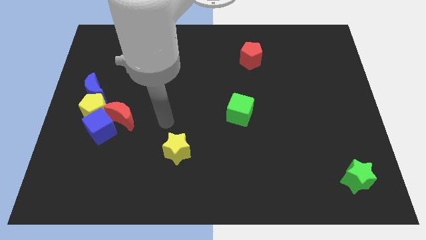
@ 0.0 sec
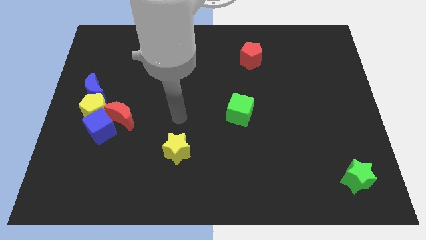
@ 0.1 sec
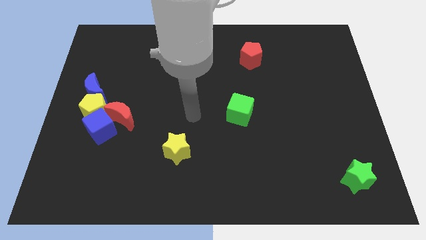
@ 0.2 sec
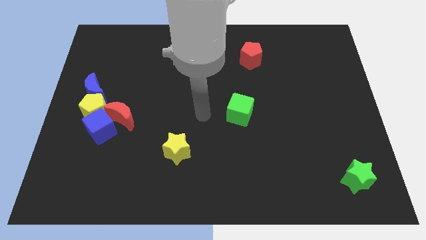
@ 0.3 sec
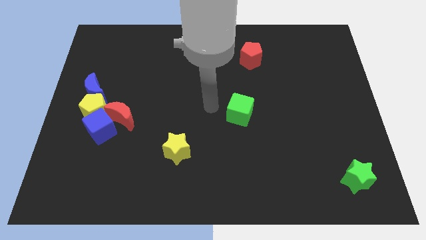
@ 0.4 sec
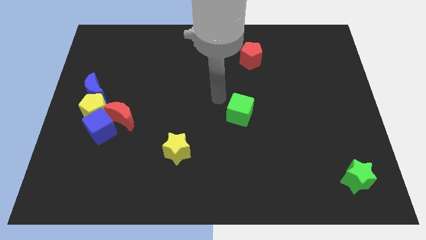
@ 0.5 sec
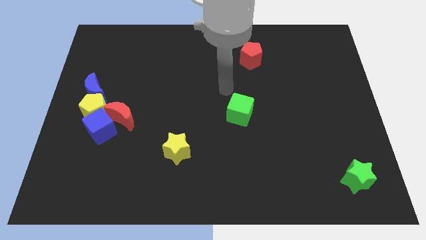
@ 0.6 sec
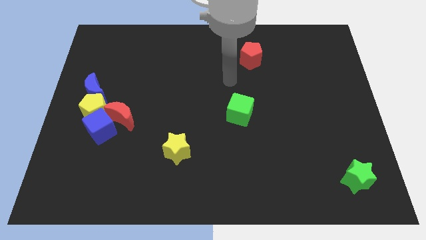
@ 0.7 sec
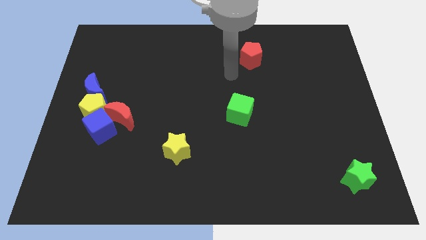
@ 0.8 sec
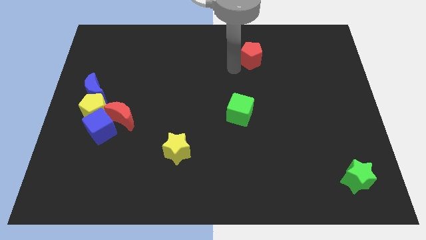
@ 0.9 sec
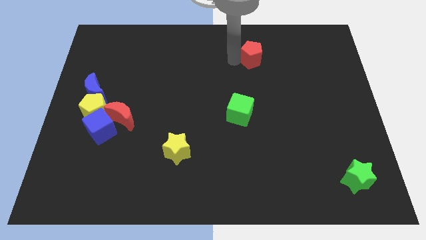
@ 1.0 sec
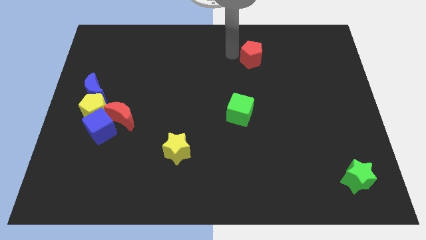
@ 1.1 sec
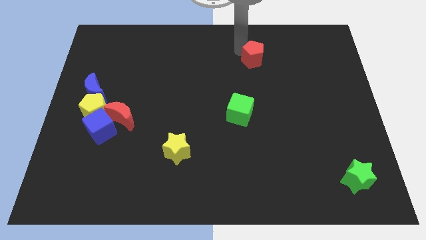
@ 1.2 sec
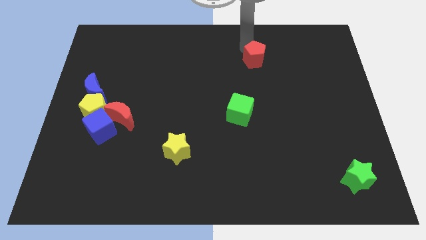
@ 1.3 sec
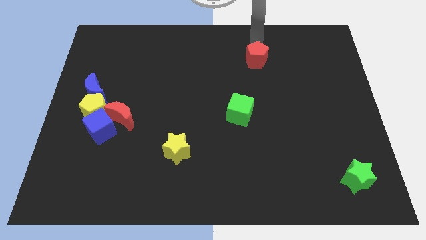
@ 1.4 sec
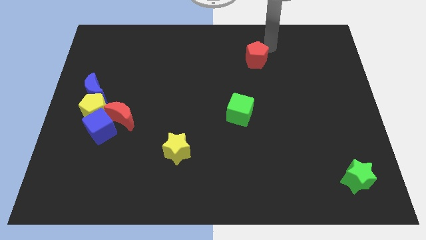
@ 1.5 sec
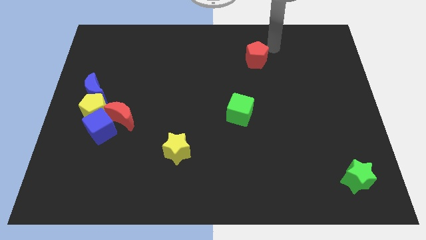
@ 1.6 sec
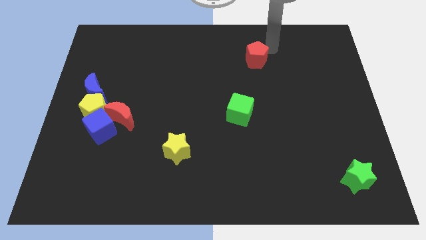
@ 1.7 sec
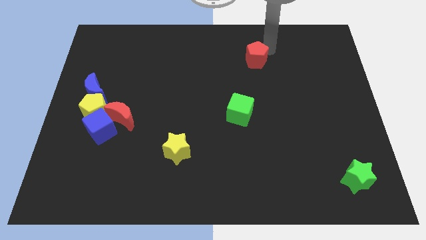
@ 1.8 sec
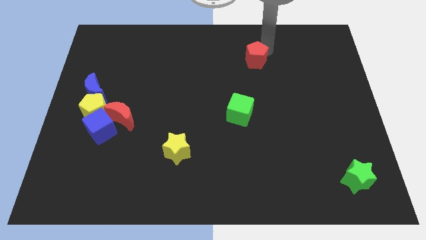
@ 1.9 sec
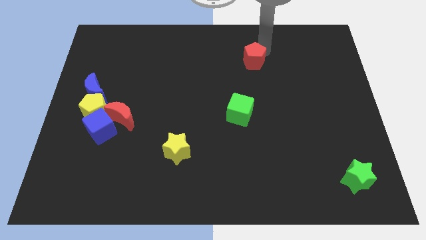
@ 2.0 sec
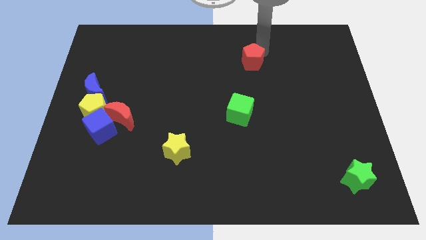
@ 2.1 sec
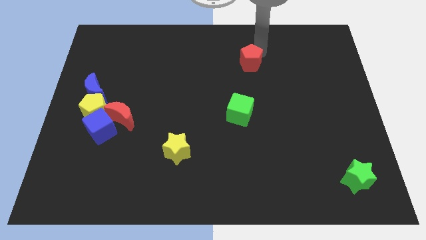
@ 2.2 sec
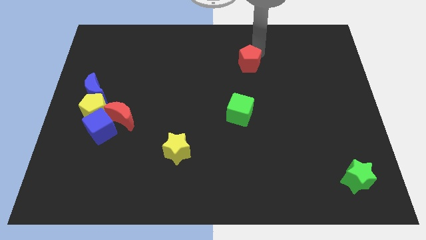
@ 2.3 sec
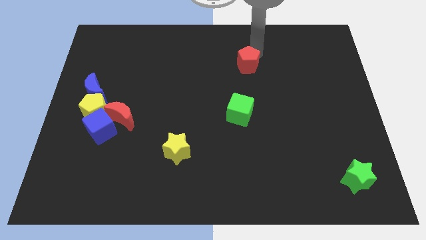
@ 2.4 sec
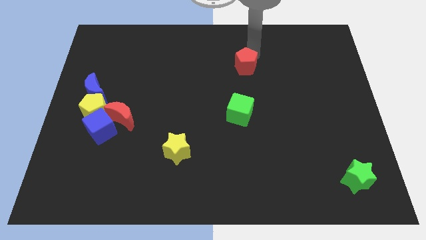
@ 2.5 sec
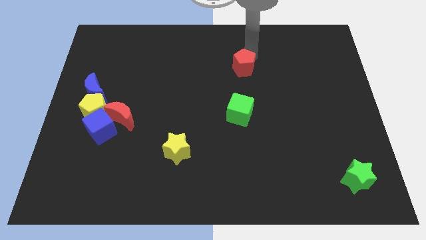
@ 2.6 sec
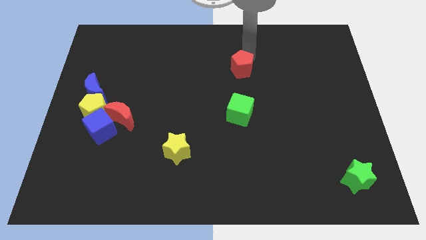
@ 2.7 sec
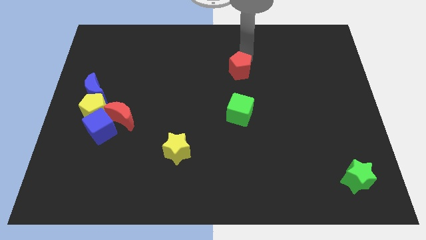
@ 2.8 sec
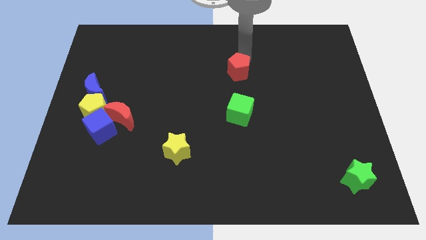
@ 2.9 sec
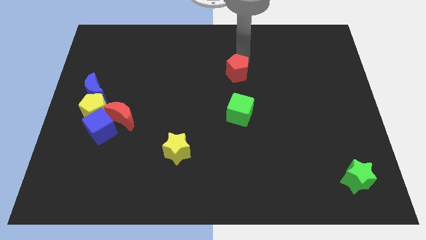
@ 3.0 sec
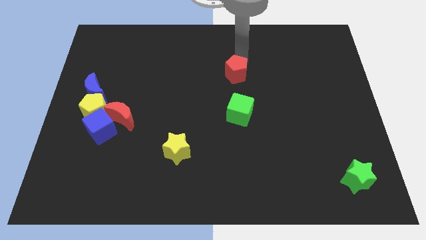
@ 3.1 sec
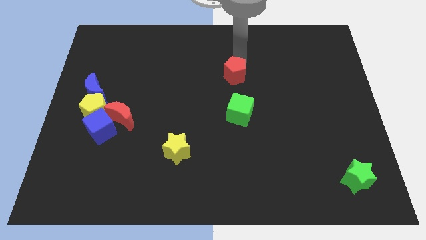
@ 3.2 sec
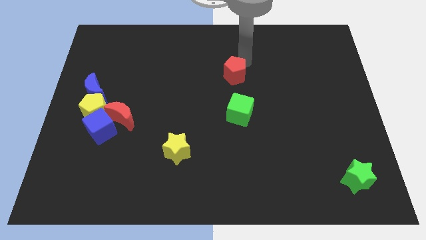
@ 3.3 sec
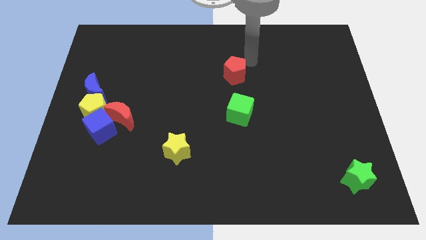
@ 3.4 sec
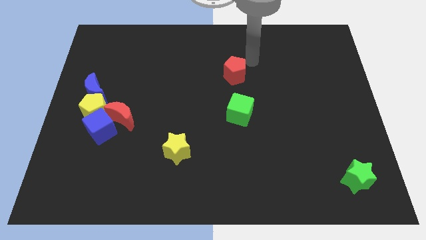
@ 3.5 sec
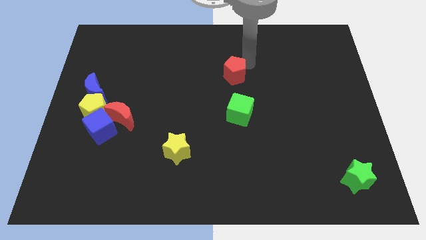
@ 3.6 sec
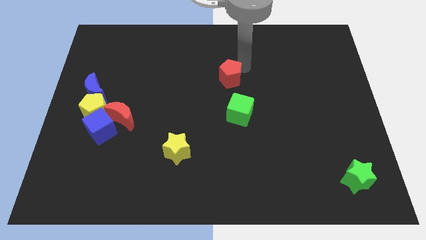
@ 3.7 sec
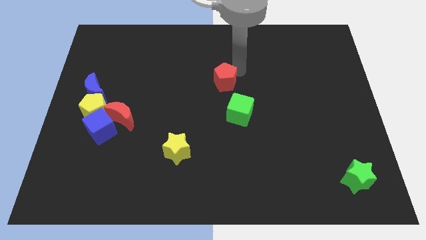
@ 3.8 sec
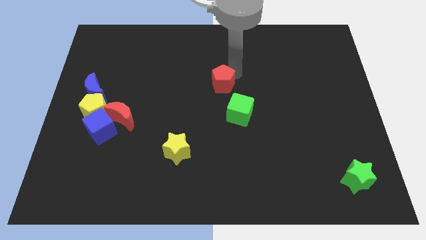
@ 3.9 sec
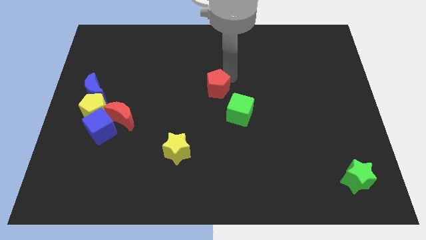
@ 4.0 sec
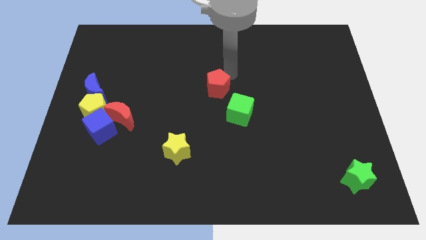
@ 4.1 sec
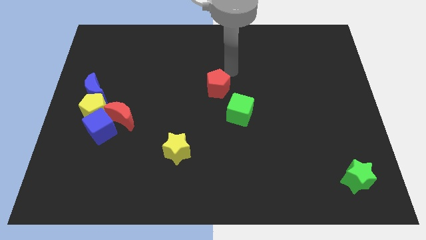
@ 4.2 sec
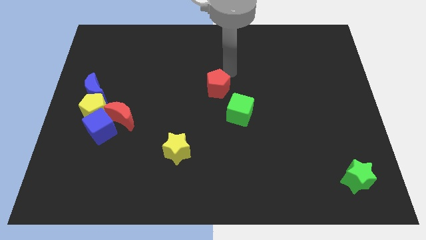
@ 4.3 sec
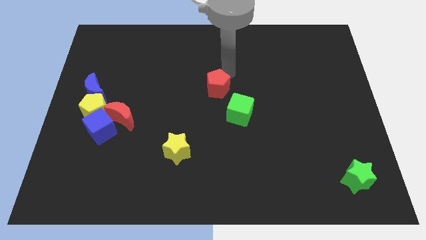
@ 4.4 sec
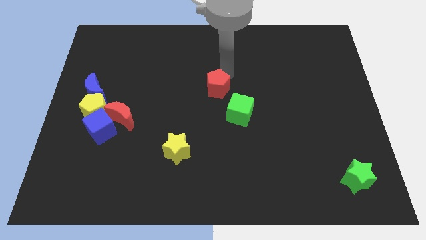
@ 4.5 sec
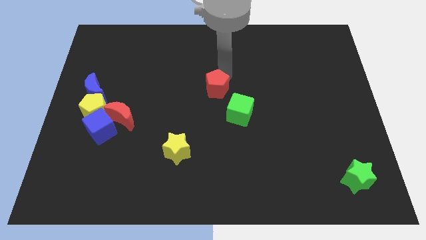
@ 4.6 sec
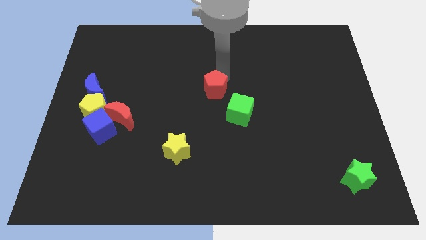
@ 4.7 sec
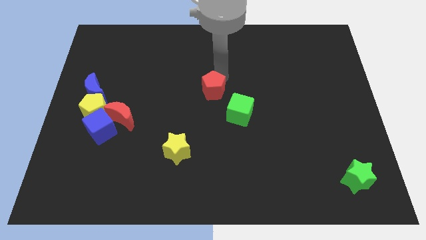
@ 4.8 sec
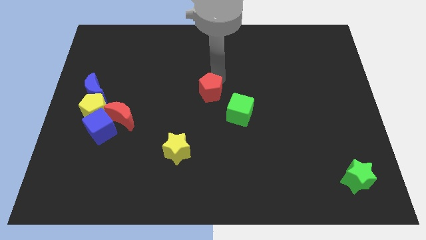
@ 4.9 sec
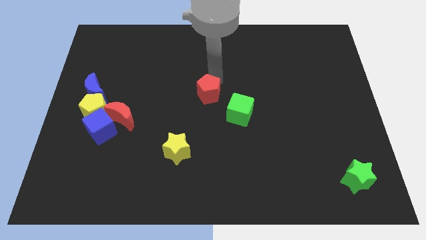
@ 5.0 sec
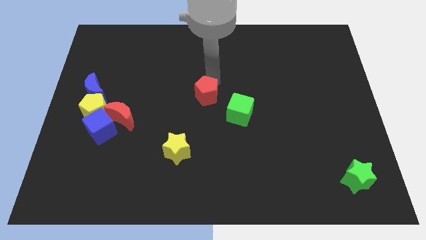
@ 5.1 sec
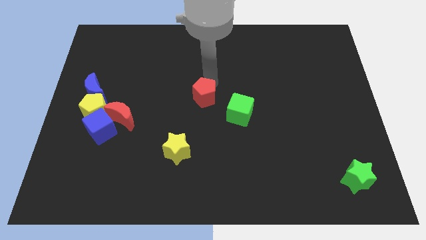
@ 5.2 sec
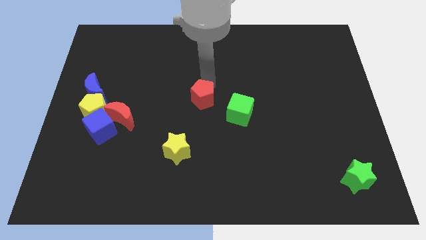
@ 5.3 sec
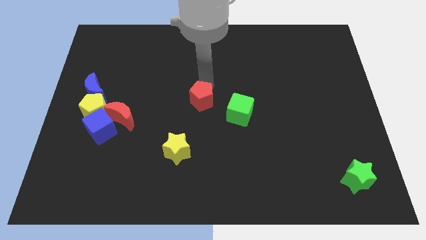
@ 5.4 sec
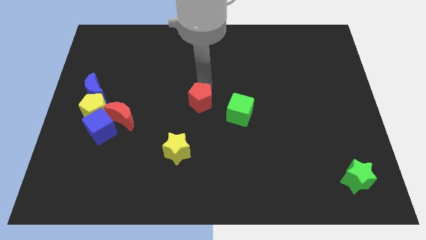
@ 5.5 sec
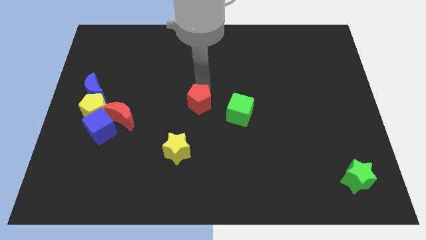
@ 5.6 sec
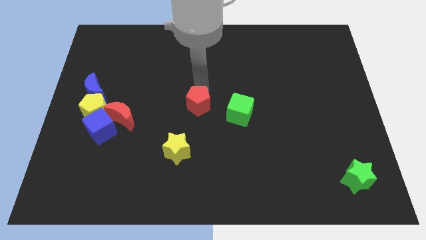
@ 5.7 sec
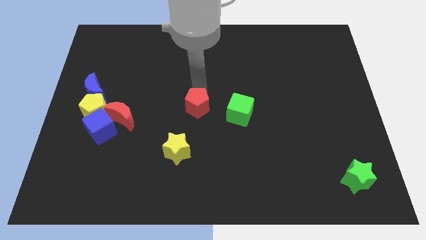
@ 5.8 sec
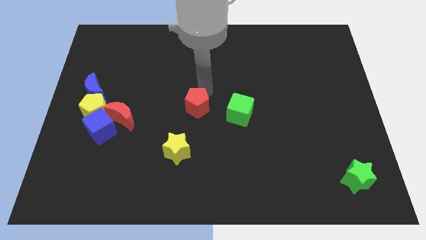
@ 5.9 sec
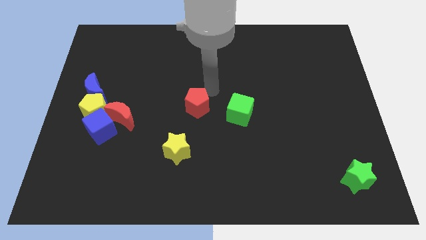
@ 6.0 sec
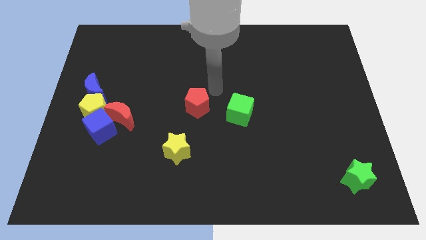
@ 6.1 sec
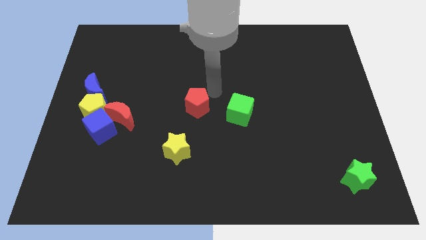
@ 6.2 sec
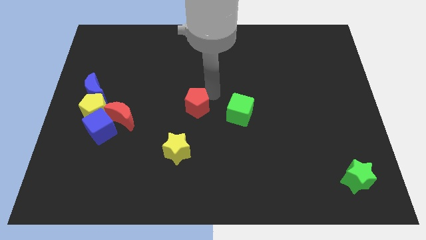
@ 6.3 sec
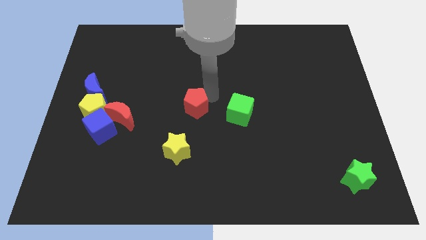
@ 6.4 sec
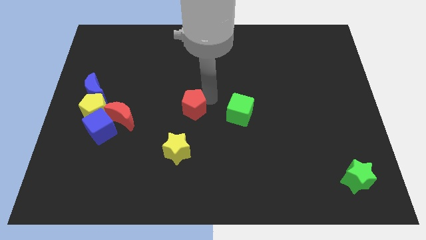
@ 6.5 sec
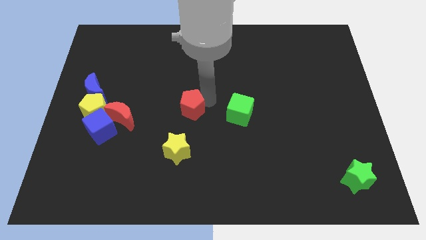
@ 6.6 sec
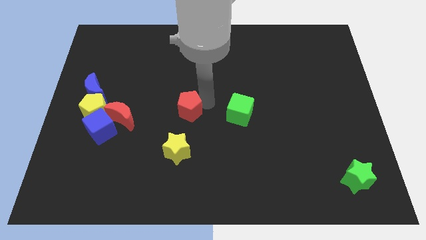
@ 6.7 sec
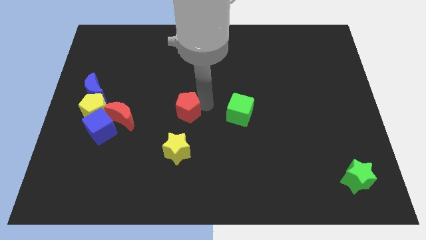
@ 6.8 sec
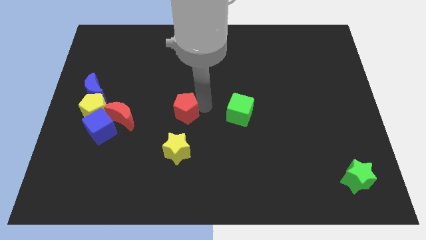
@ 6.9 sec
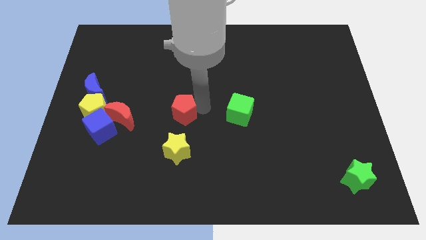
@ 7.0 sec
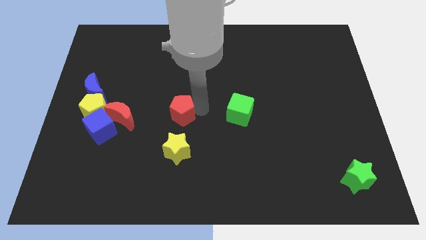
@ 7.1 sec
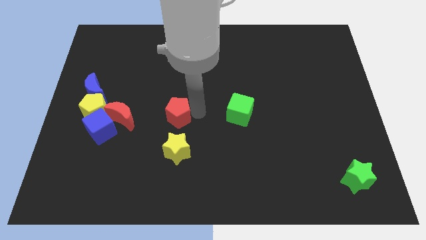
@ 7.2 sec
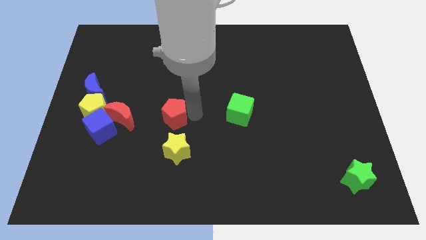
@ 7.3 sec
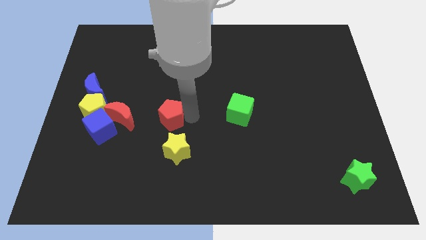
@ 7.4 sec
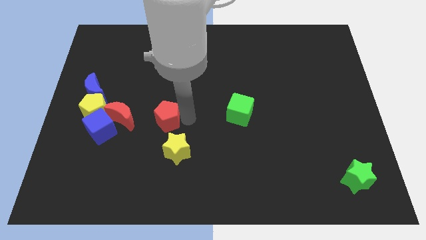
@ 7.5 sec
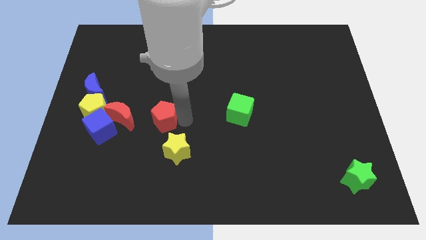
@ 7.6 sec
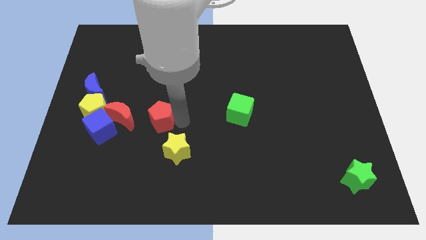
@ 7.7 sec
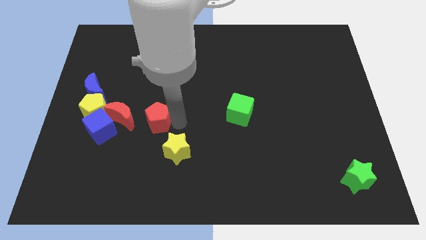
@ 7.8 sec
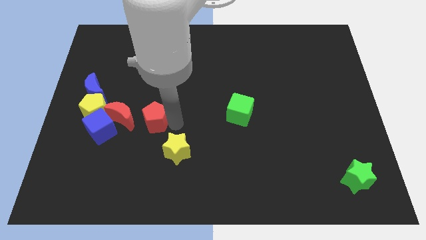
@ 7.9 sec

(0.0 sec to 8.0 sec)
move the red pentagon diagonally down and to the right of the red moon
